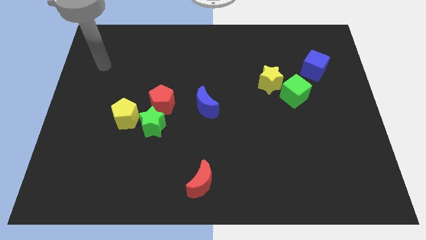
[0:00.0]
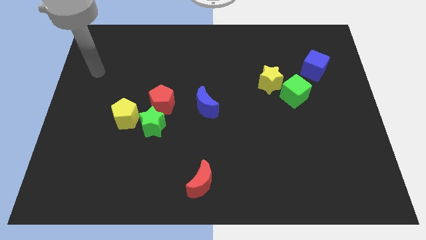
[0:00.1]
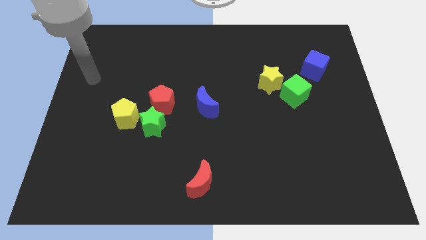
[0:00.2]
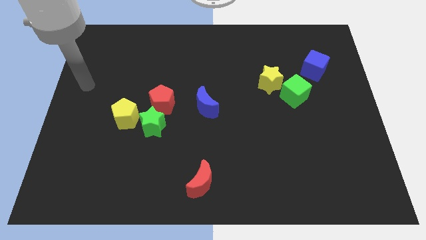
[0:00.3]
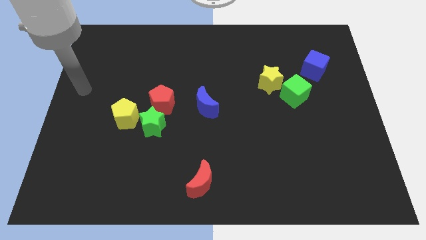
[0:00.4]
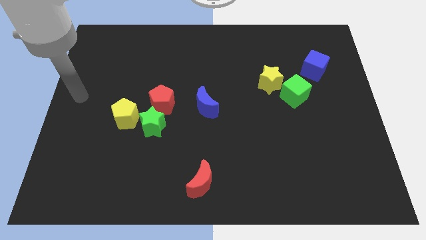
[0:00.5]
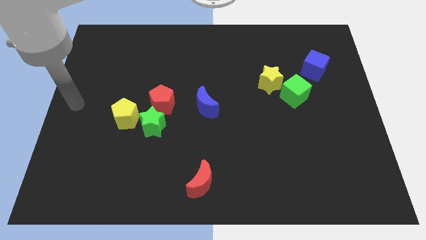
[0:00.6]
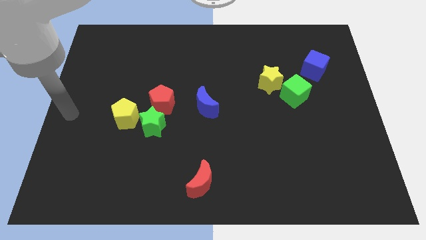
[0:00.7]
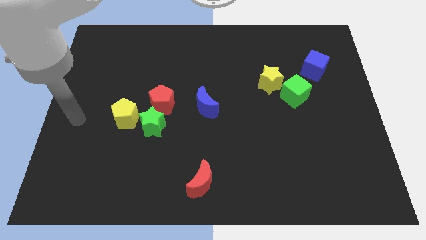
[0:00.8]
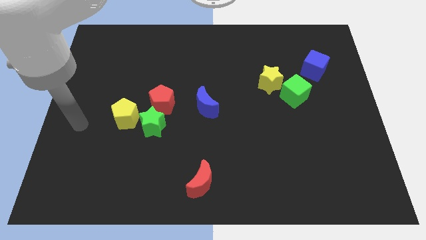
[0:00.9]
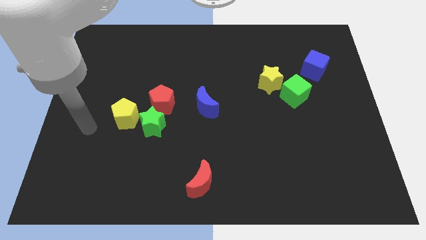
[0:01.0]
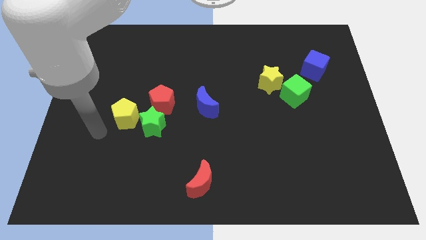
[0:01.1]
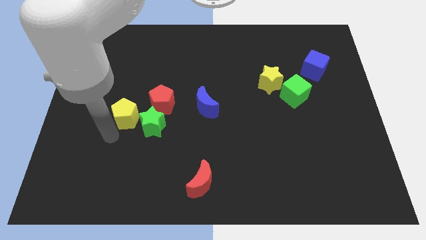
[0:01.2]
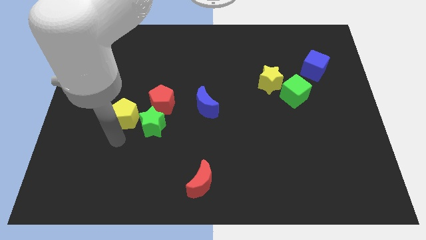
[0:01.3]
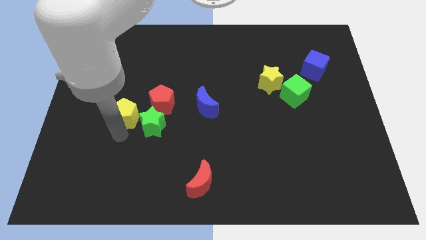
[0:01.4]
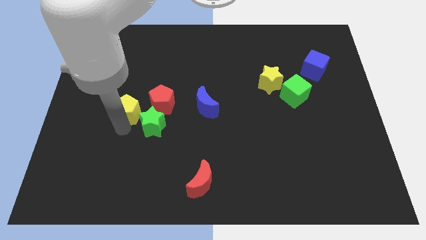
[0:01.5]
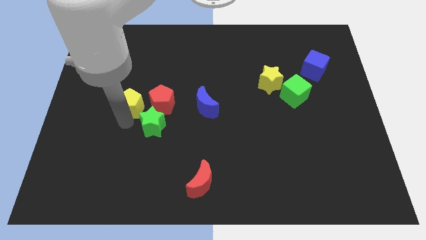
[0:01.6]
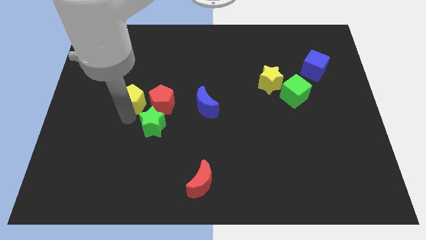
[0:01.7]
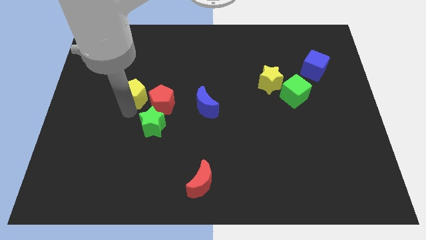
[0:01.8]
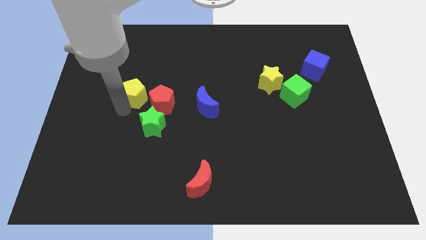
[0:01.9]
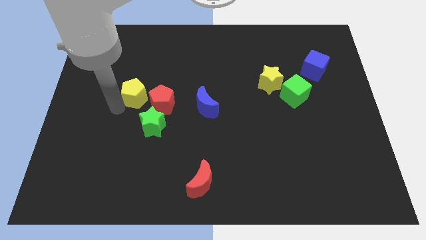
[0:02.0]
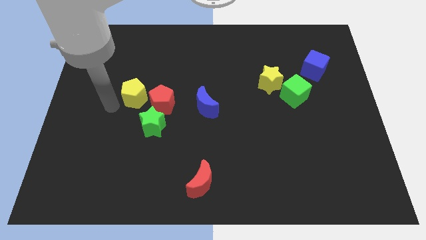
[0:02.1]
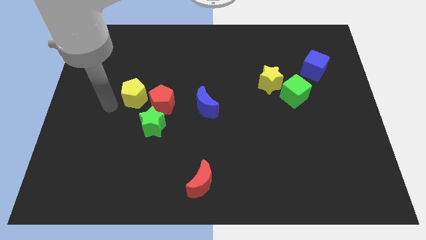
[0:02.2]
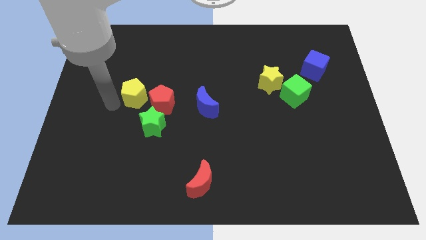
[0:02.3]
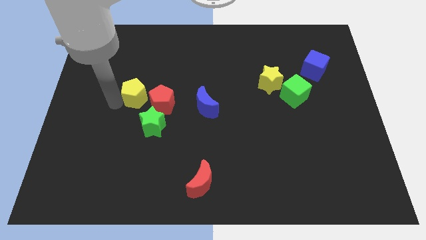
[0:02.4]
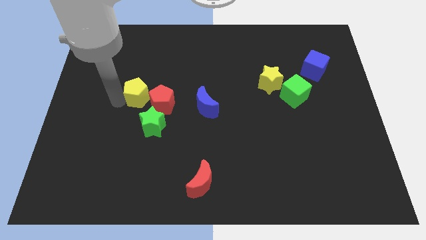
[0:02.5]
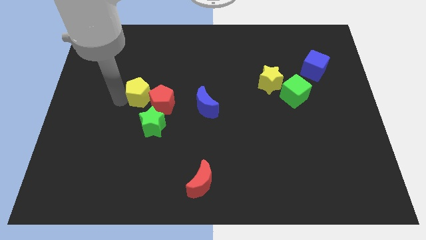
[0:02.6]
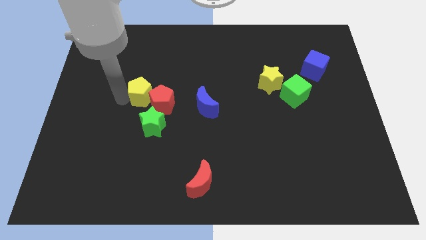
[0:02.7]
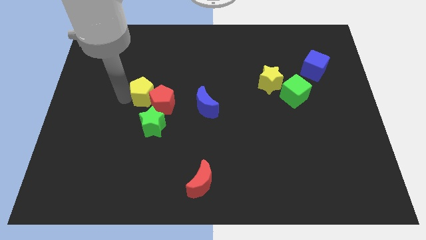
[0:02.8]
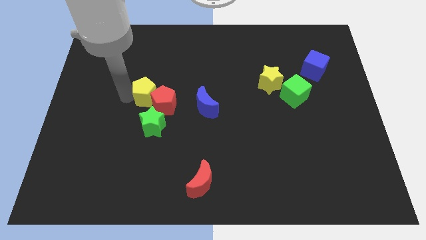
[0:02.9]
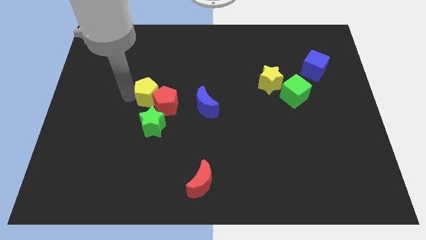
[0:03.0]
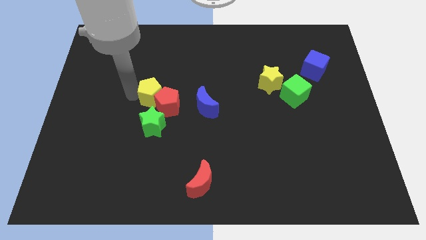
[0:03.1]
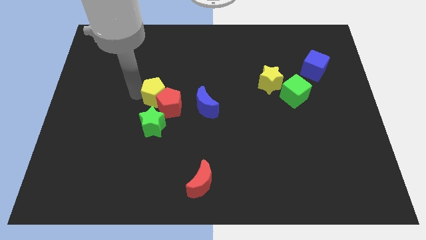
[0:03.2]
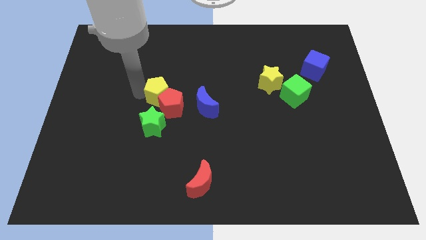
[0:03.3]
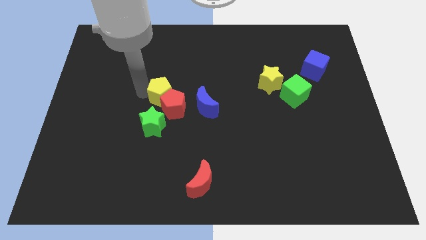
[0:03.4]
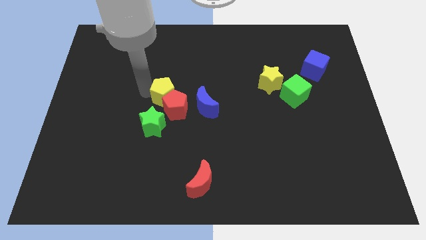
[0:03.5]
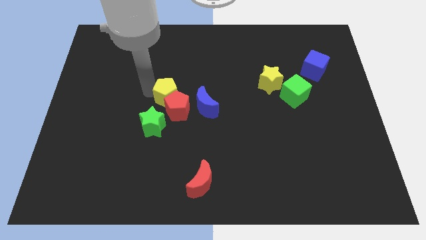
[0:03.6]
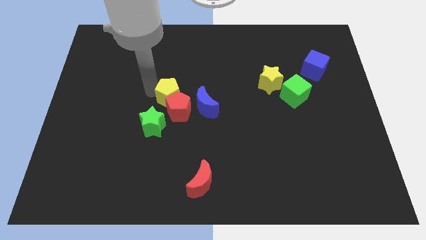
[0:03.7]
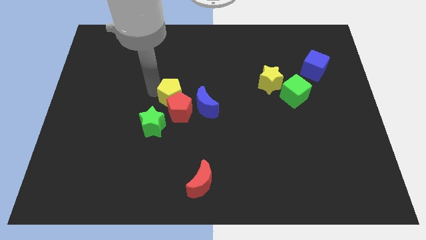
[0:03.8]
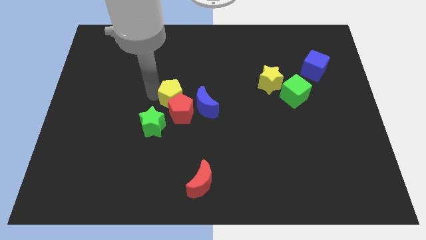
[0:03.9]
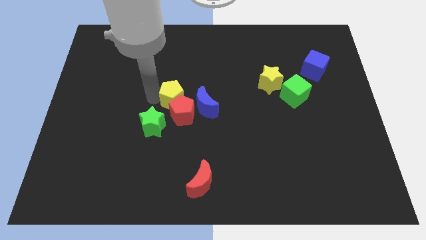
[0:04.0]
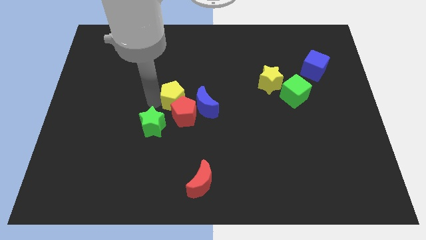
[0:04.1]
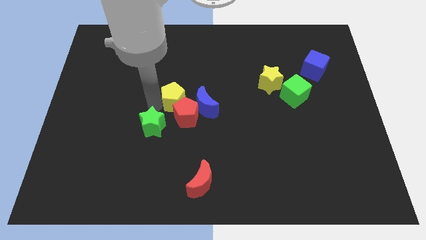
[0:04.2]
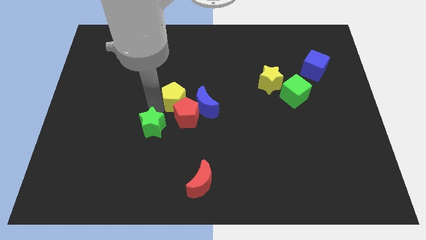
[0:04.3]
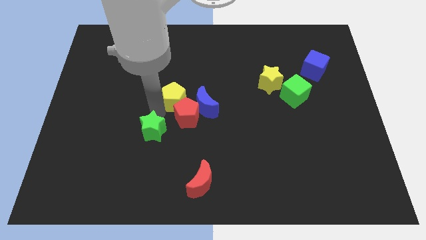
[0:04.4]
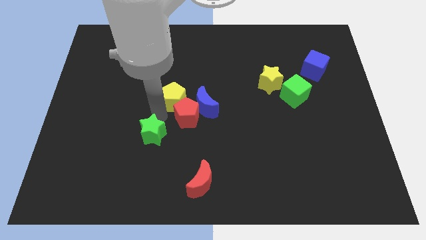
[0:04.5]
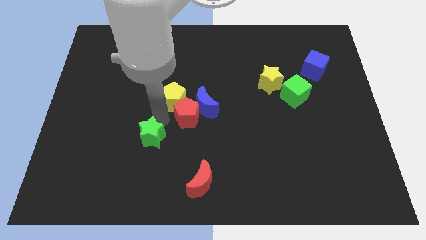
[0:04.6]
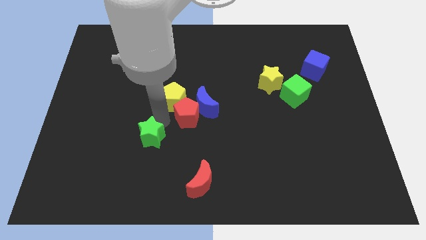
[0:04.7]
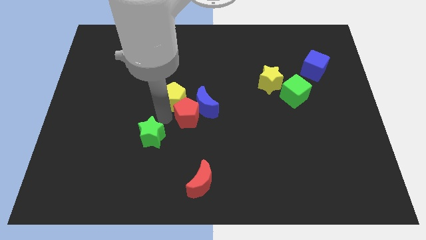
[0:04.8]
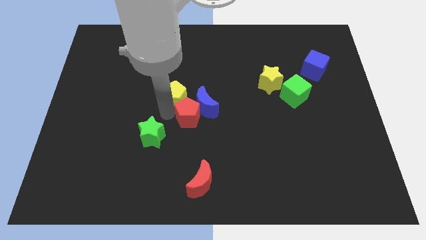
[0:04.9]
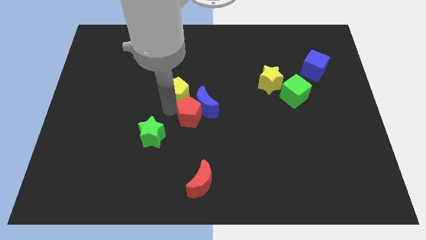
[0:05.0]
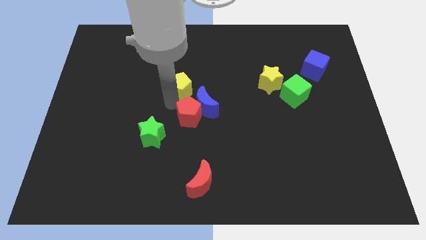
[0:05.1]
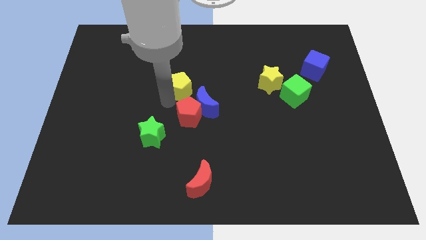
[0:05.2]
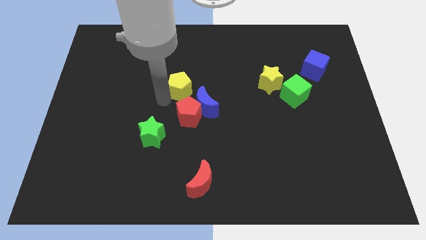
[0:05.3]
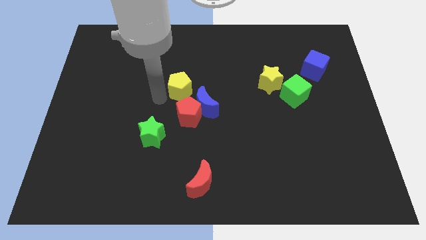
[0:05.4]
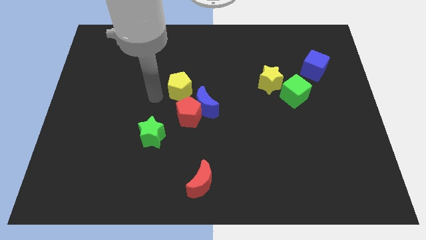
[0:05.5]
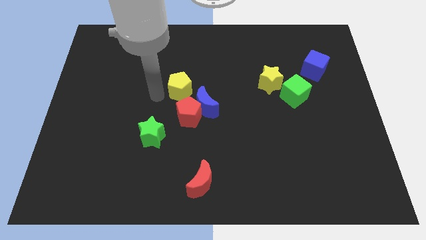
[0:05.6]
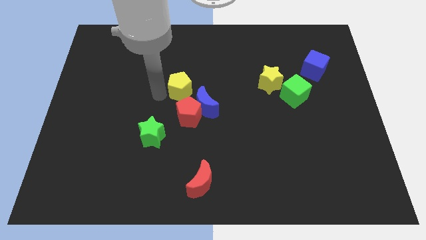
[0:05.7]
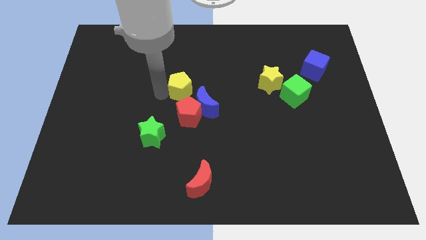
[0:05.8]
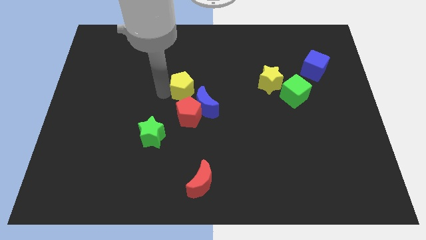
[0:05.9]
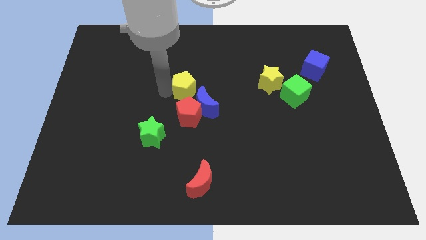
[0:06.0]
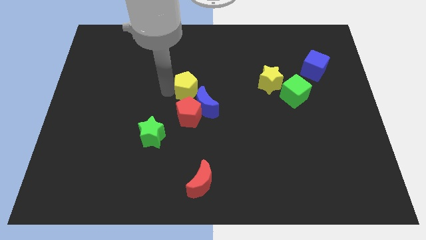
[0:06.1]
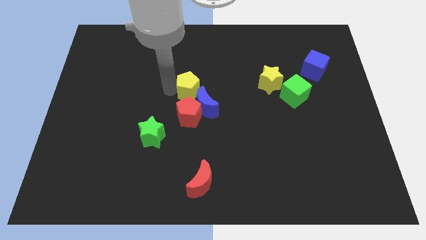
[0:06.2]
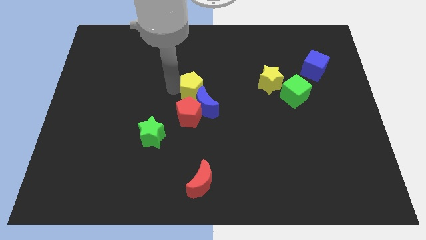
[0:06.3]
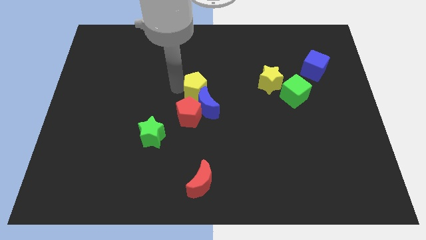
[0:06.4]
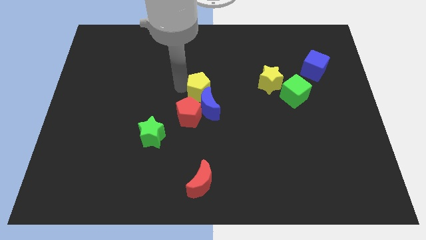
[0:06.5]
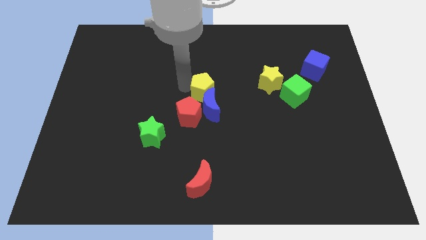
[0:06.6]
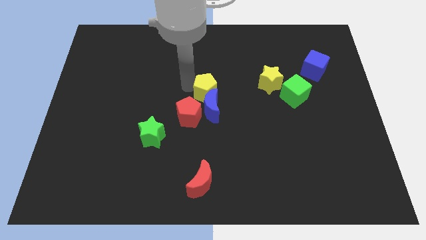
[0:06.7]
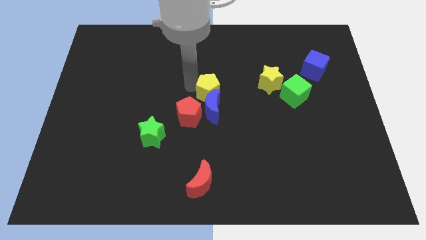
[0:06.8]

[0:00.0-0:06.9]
push the yellow pentagon to the left of the yellow star
